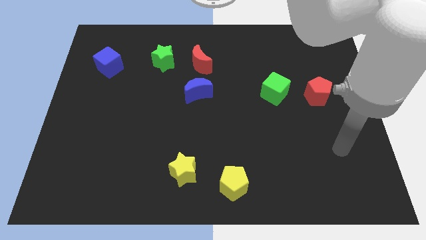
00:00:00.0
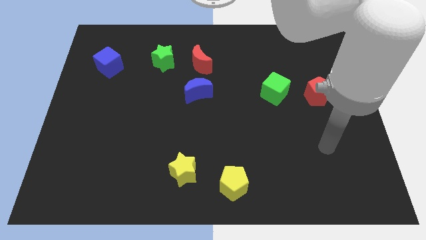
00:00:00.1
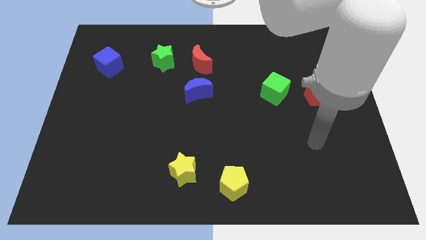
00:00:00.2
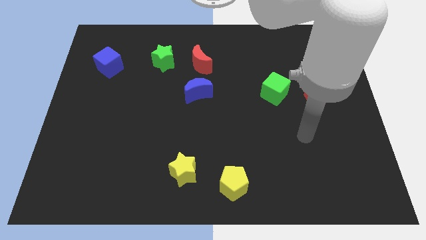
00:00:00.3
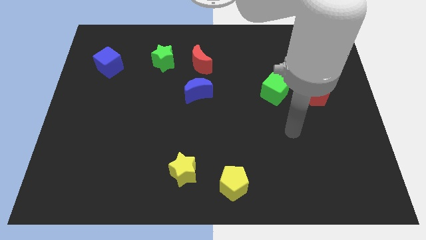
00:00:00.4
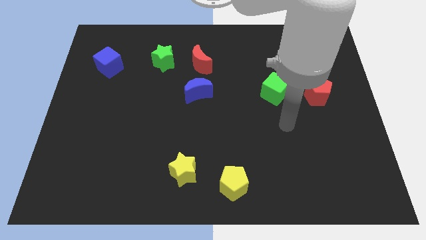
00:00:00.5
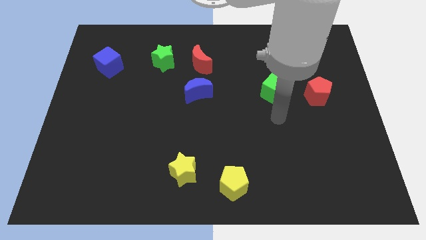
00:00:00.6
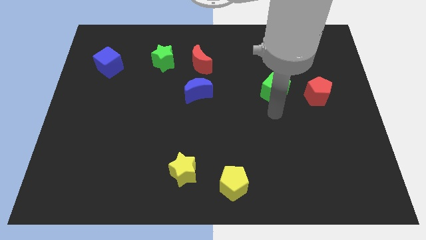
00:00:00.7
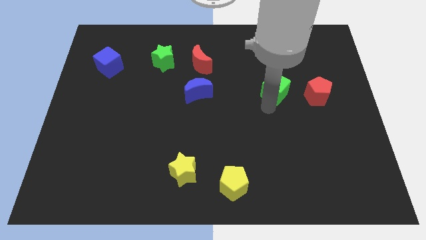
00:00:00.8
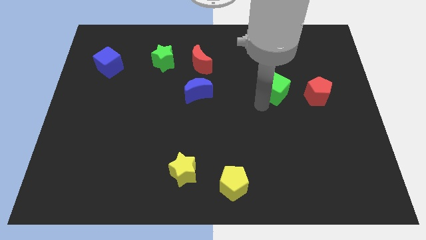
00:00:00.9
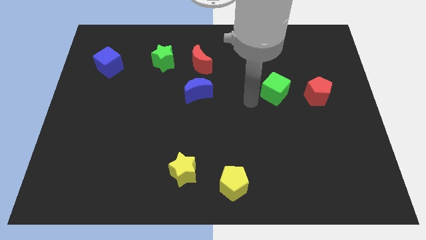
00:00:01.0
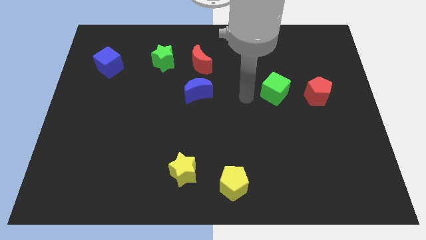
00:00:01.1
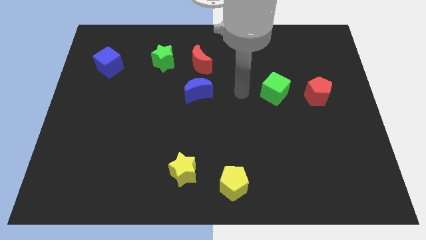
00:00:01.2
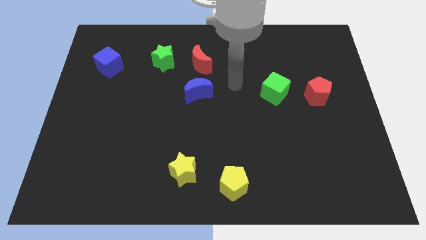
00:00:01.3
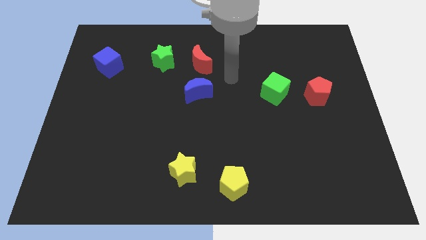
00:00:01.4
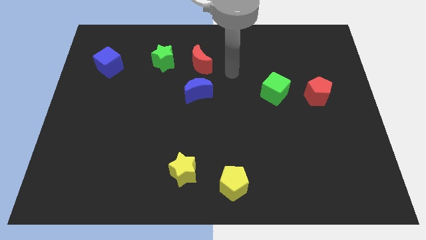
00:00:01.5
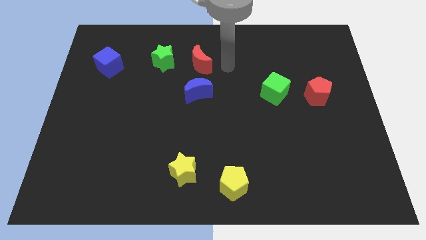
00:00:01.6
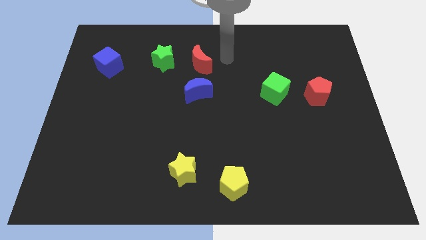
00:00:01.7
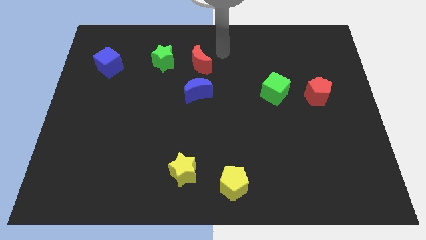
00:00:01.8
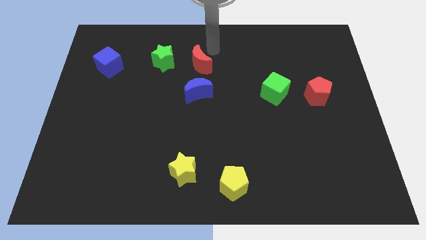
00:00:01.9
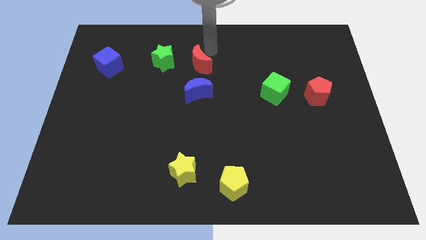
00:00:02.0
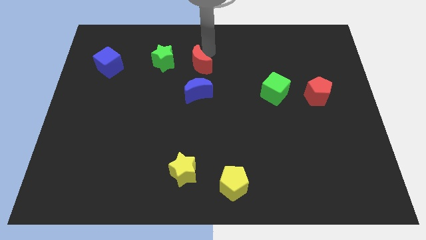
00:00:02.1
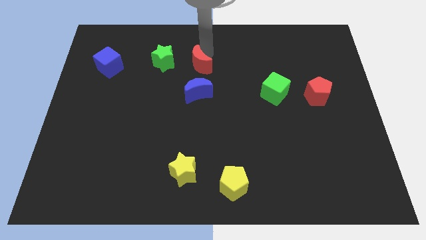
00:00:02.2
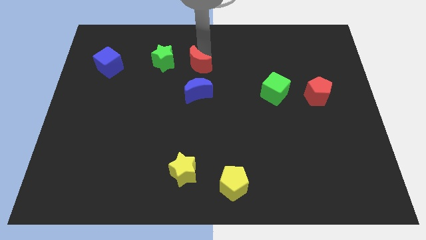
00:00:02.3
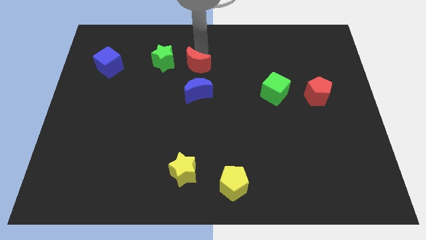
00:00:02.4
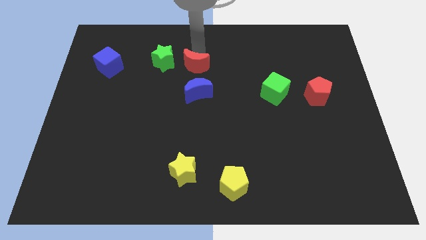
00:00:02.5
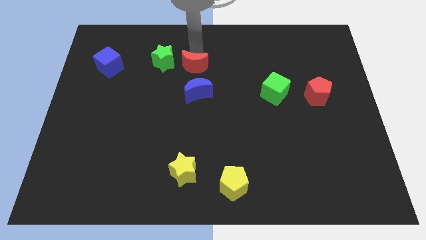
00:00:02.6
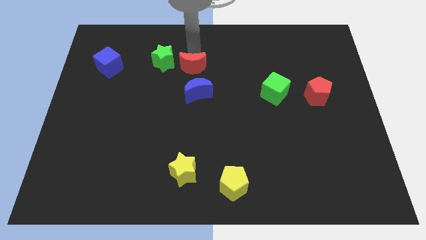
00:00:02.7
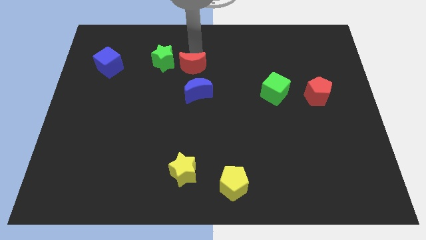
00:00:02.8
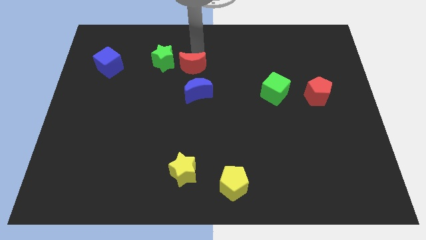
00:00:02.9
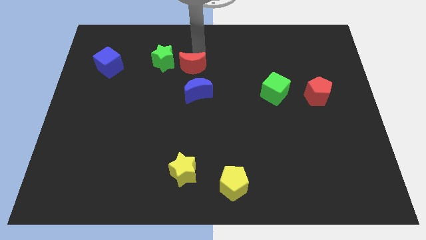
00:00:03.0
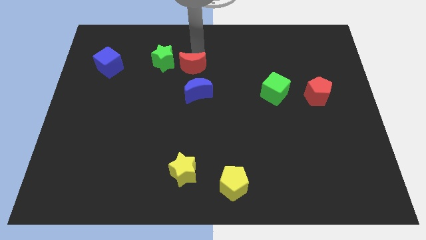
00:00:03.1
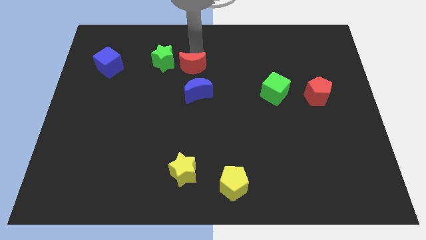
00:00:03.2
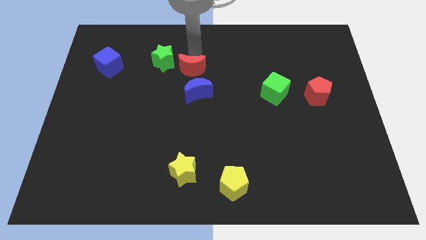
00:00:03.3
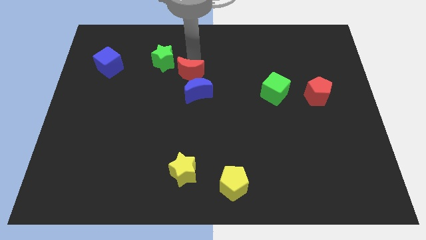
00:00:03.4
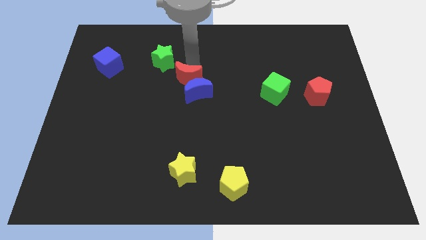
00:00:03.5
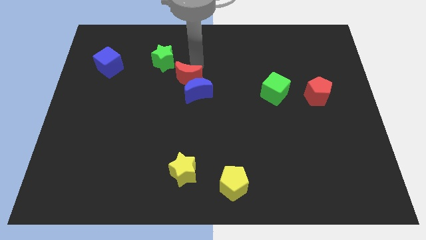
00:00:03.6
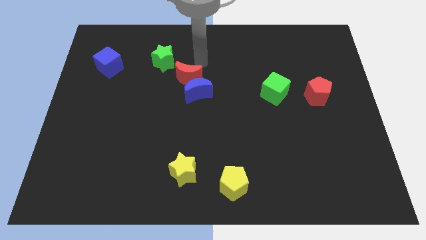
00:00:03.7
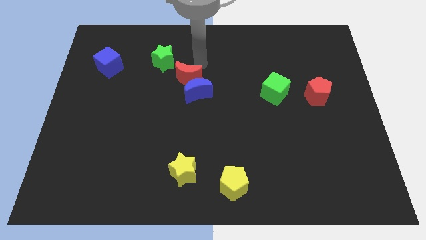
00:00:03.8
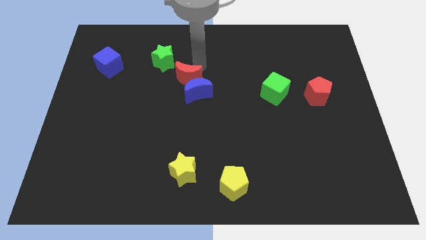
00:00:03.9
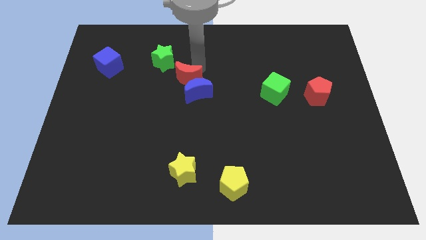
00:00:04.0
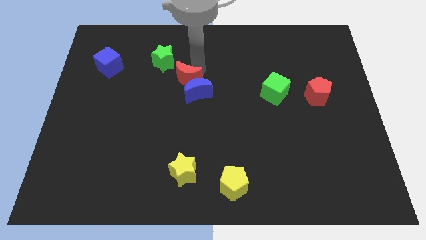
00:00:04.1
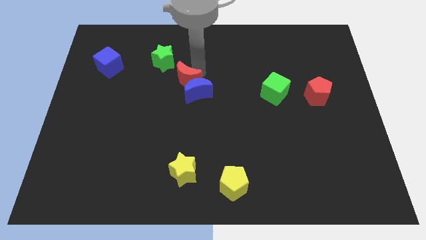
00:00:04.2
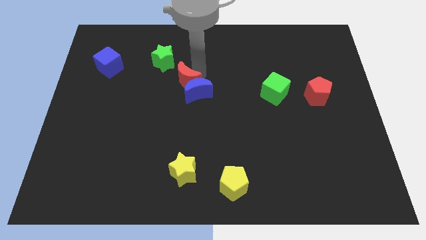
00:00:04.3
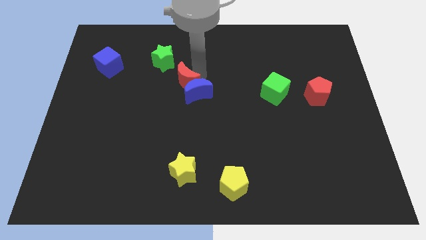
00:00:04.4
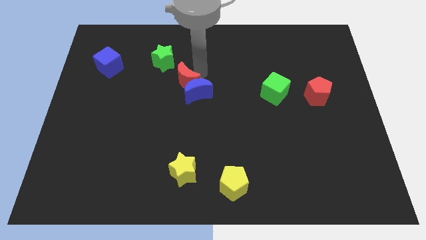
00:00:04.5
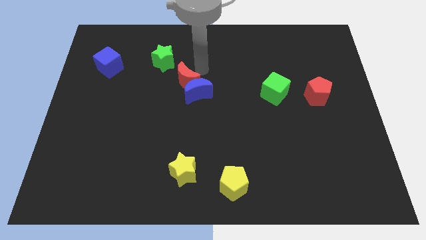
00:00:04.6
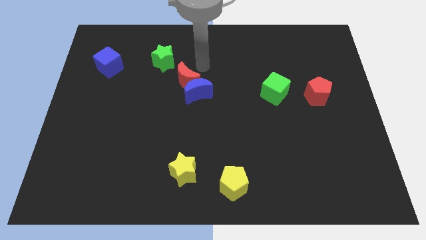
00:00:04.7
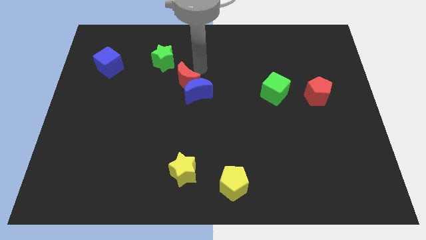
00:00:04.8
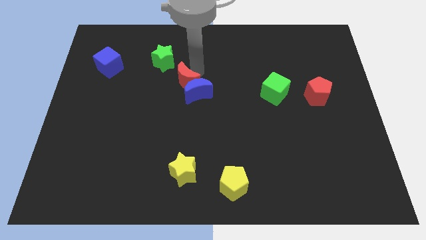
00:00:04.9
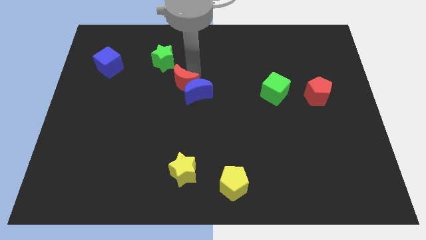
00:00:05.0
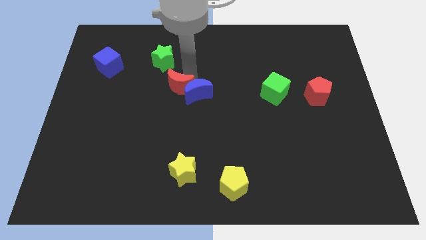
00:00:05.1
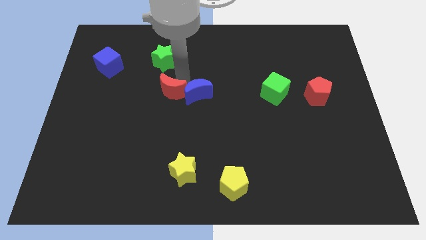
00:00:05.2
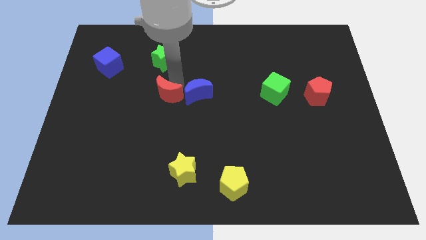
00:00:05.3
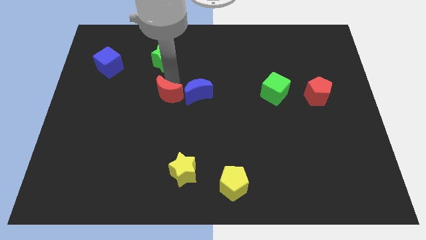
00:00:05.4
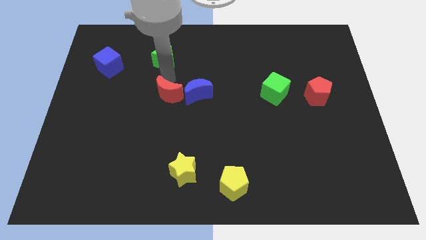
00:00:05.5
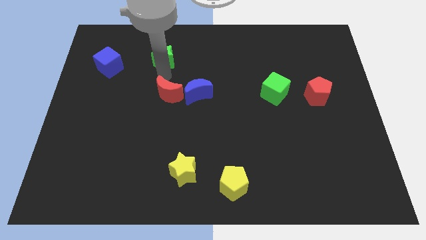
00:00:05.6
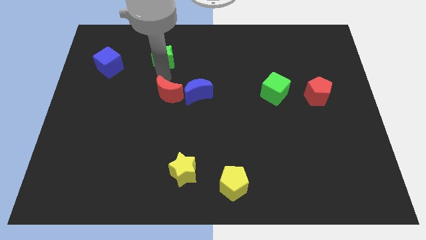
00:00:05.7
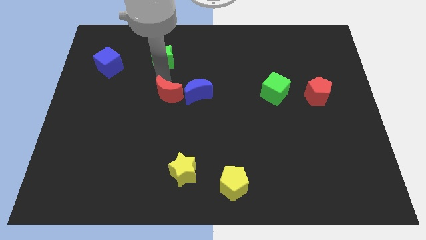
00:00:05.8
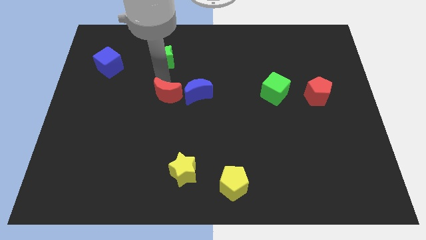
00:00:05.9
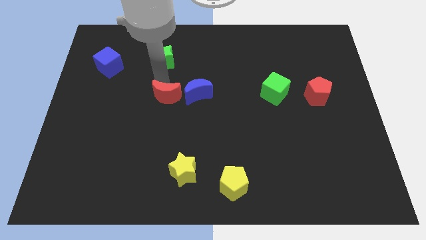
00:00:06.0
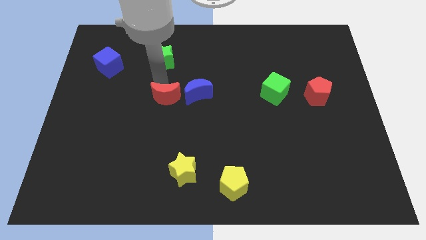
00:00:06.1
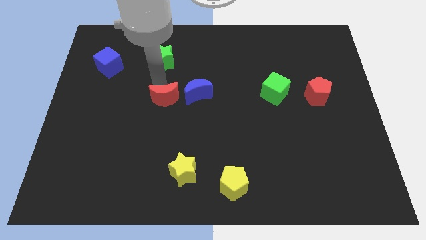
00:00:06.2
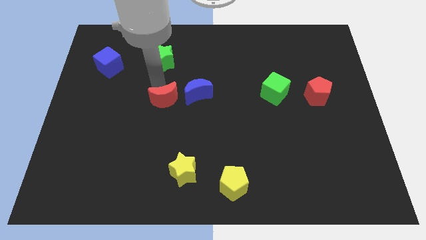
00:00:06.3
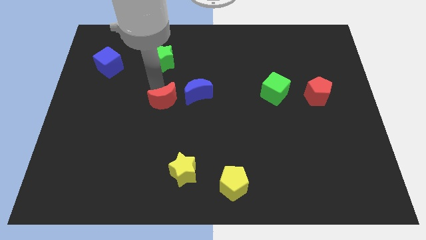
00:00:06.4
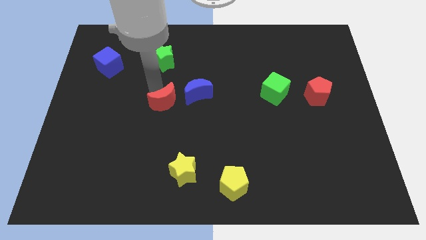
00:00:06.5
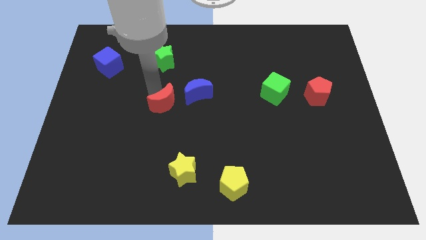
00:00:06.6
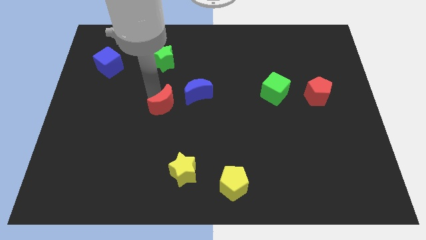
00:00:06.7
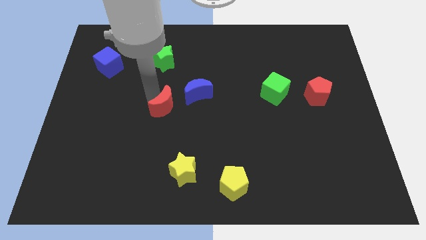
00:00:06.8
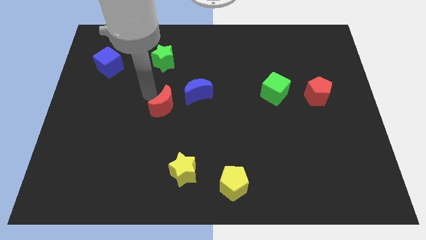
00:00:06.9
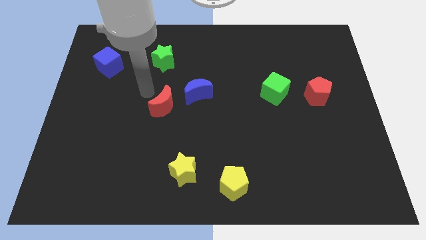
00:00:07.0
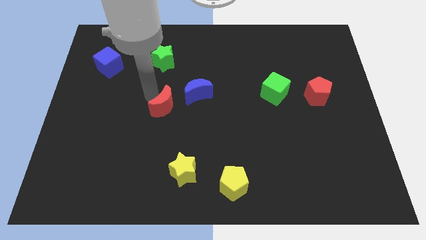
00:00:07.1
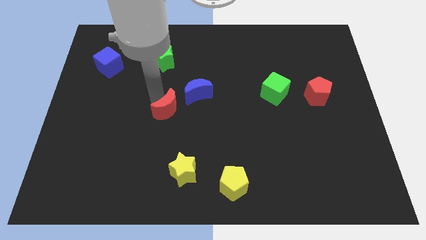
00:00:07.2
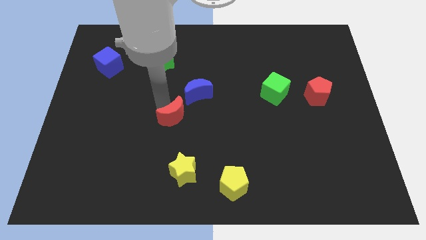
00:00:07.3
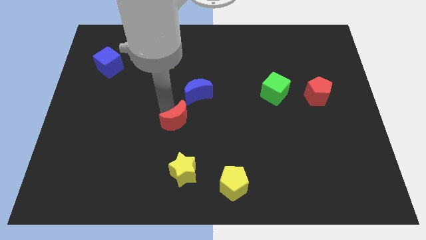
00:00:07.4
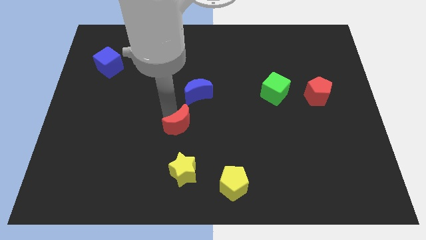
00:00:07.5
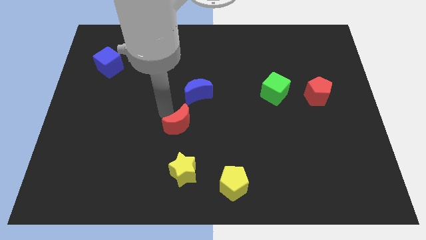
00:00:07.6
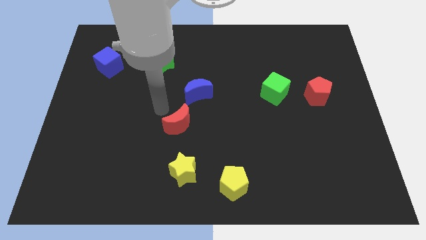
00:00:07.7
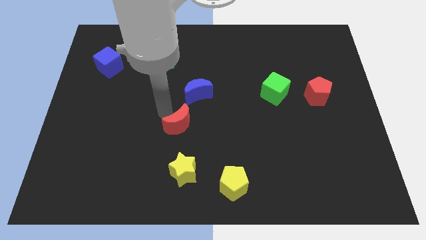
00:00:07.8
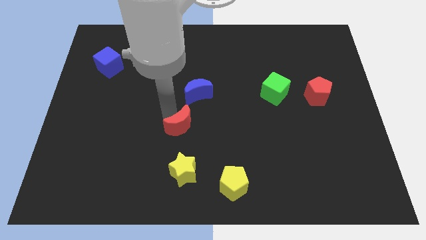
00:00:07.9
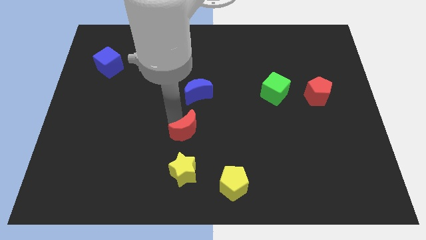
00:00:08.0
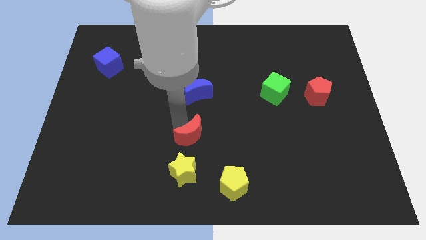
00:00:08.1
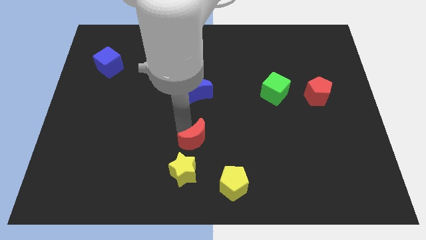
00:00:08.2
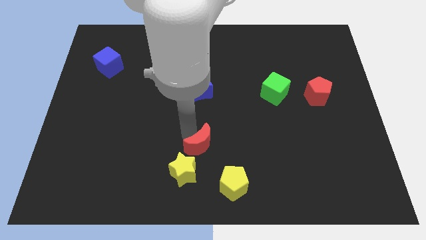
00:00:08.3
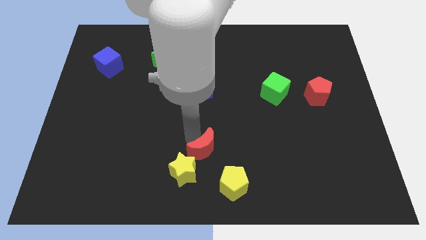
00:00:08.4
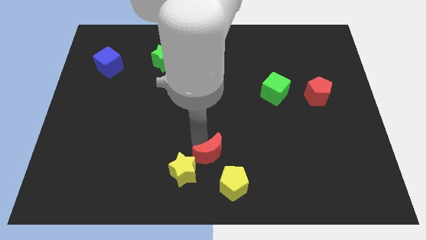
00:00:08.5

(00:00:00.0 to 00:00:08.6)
push the red moon to the bottom
